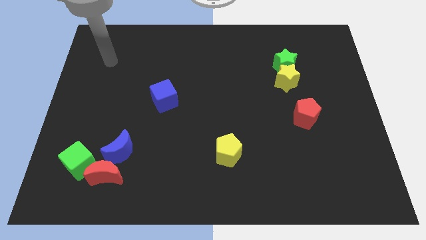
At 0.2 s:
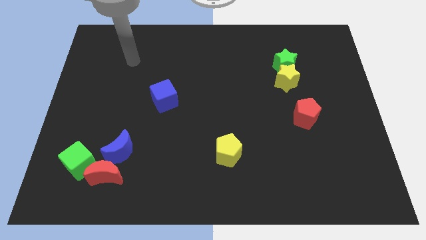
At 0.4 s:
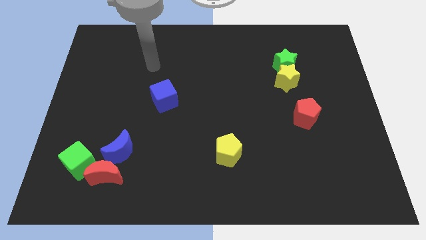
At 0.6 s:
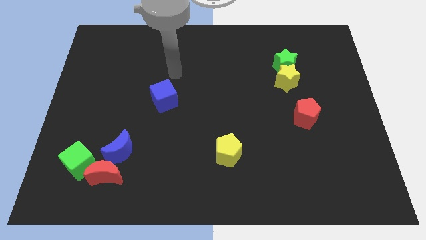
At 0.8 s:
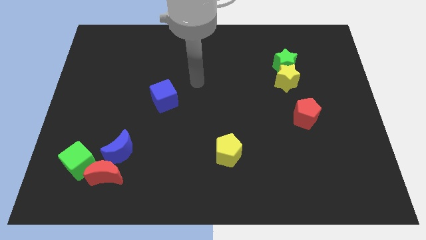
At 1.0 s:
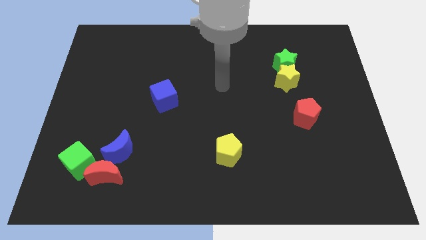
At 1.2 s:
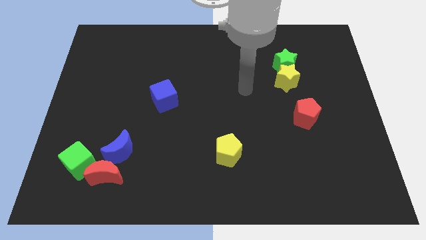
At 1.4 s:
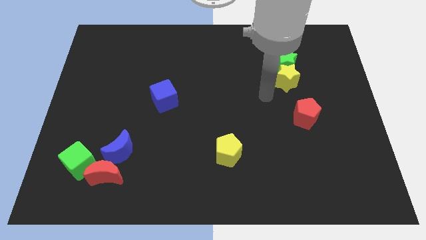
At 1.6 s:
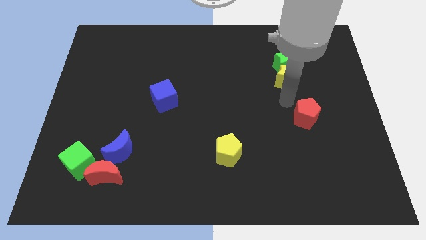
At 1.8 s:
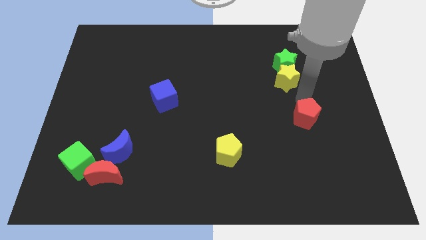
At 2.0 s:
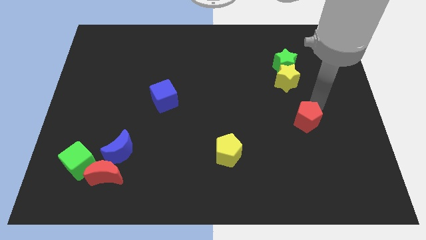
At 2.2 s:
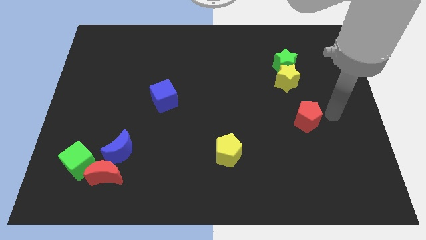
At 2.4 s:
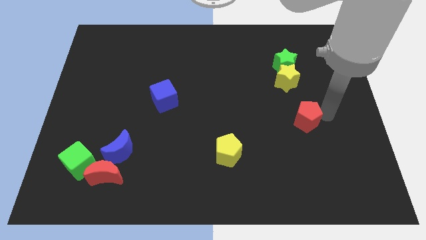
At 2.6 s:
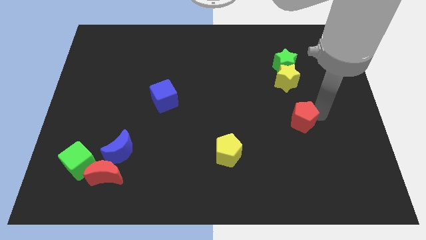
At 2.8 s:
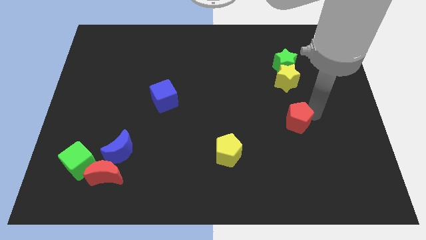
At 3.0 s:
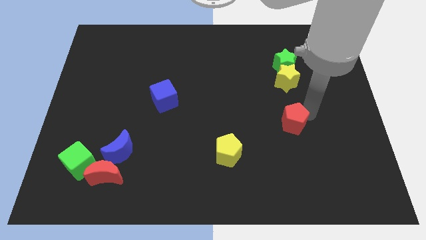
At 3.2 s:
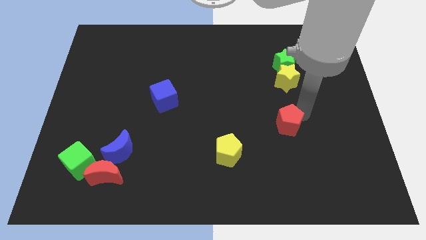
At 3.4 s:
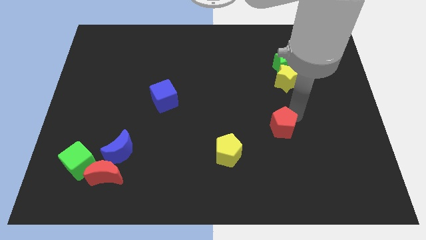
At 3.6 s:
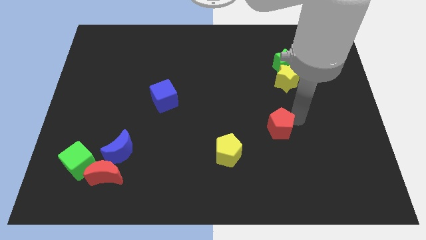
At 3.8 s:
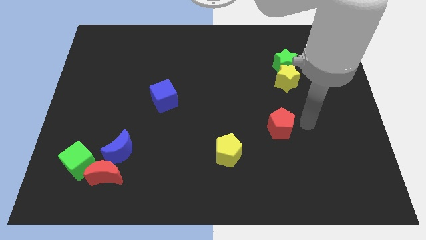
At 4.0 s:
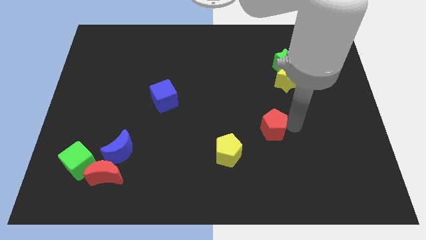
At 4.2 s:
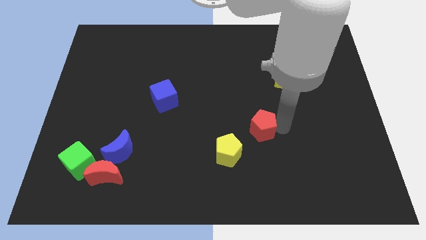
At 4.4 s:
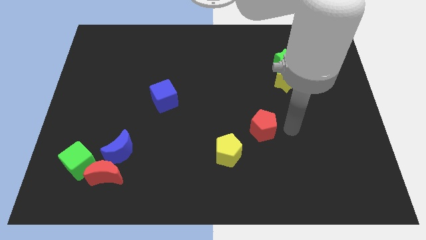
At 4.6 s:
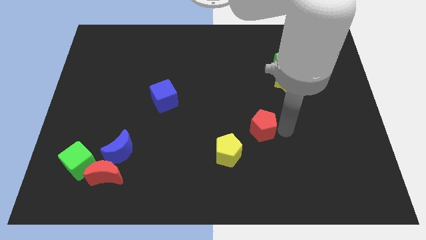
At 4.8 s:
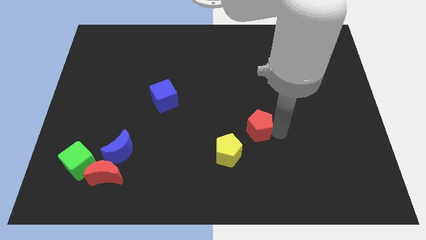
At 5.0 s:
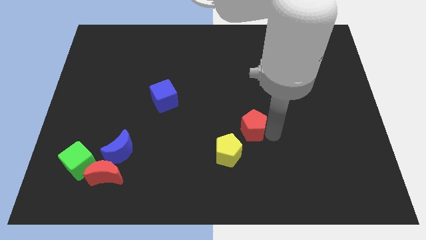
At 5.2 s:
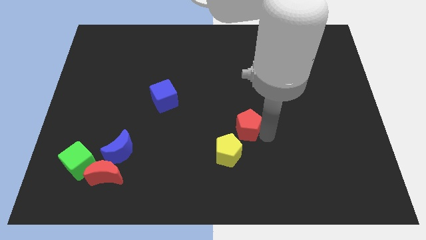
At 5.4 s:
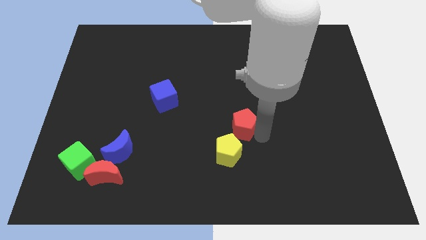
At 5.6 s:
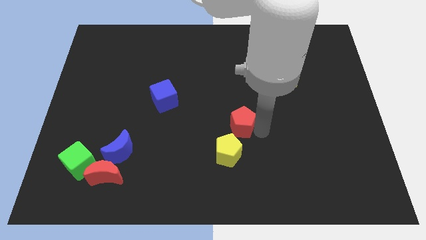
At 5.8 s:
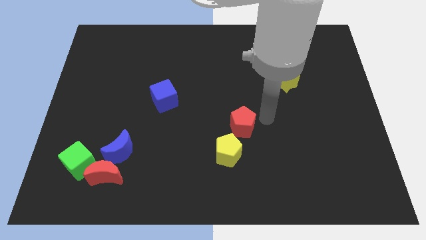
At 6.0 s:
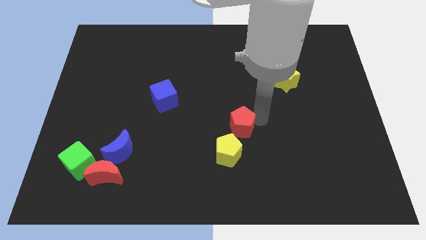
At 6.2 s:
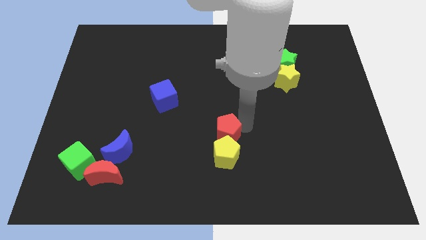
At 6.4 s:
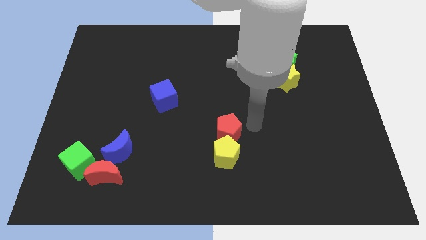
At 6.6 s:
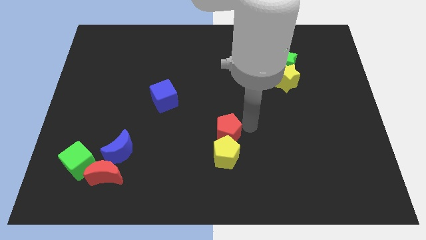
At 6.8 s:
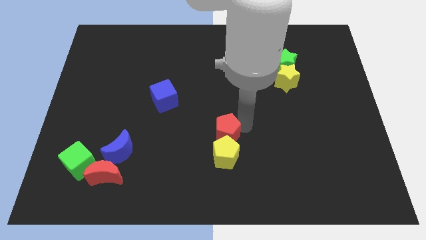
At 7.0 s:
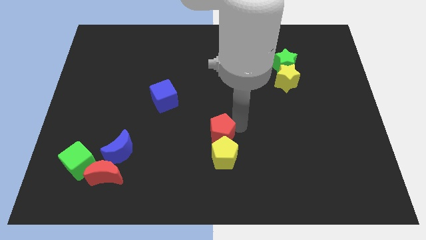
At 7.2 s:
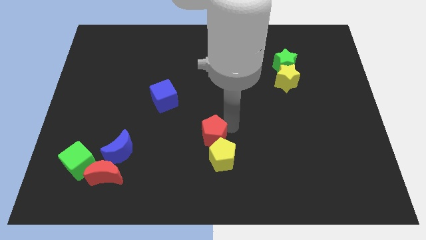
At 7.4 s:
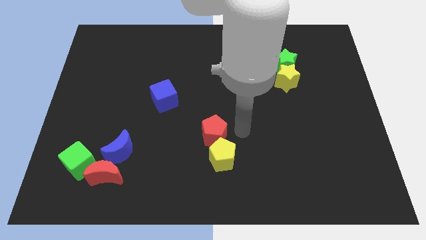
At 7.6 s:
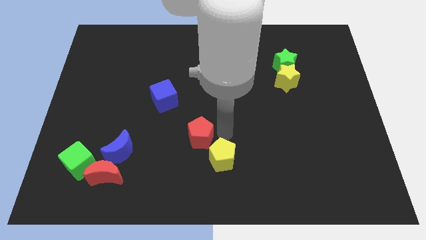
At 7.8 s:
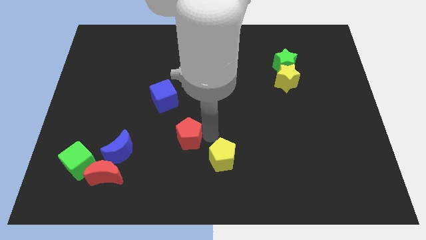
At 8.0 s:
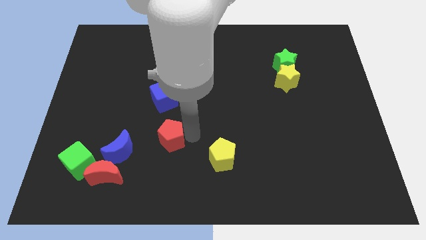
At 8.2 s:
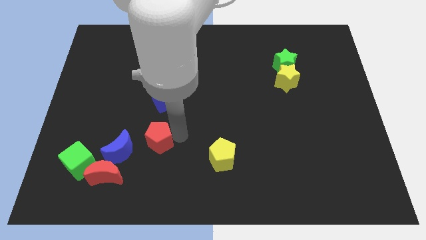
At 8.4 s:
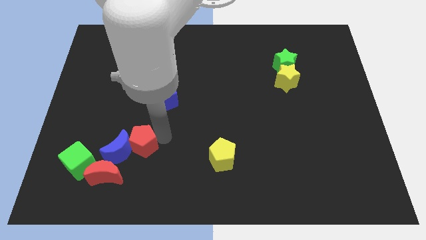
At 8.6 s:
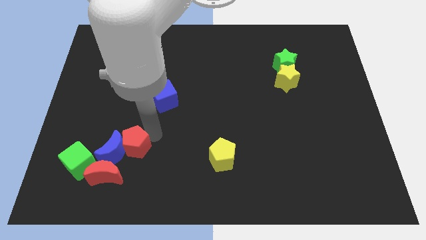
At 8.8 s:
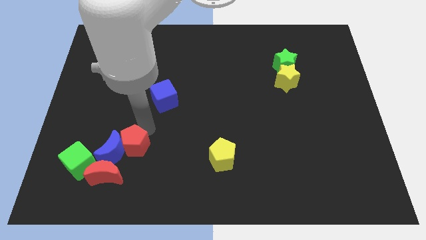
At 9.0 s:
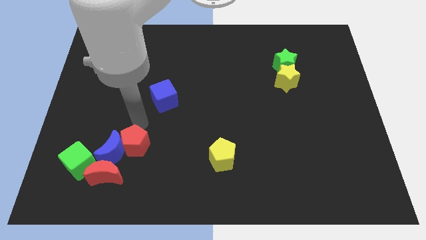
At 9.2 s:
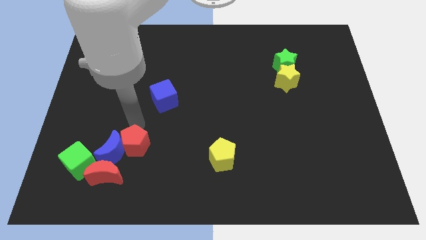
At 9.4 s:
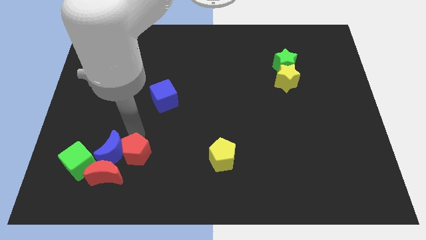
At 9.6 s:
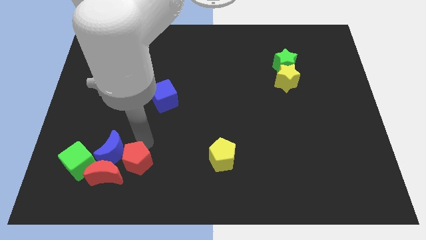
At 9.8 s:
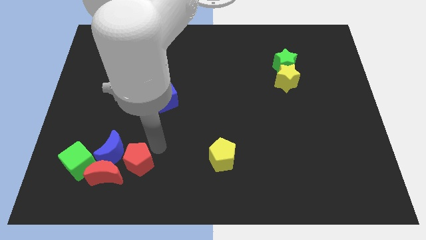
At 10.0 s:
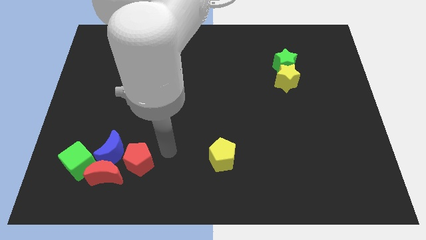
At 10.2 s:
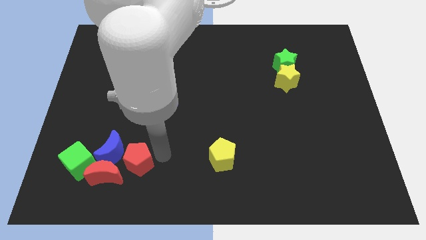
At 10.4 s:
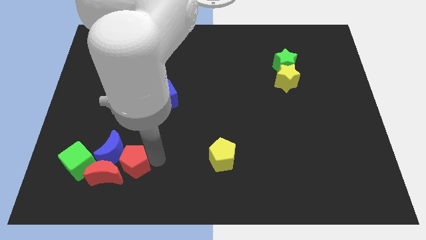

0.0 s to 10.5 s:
move the red pentagon next to the red moon

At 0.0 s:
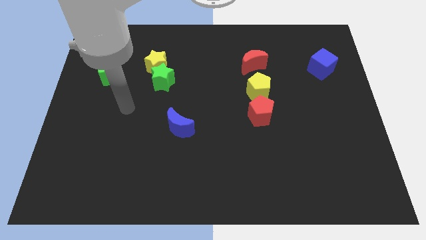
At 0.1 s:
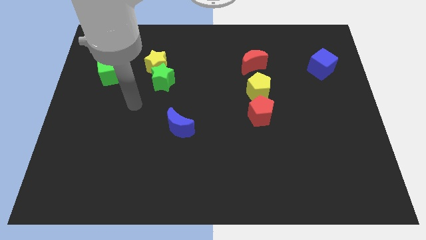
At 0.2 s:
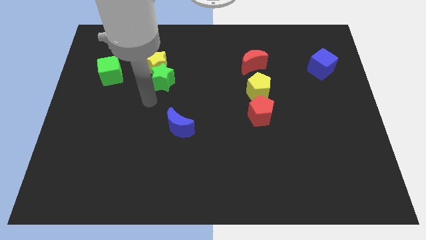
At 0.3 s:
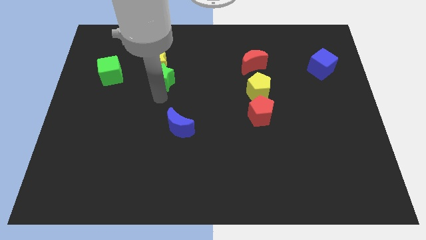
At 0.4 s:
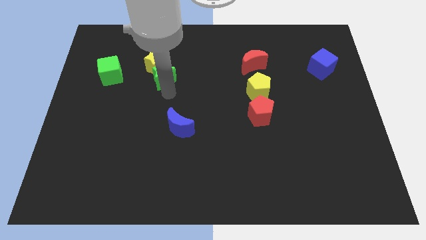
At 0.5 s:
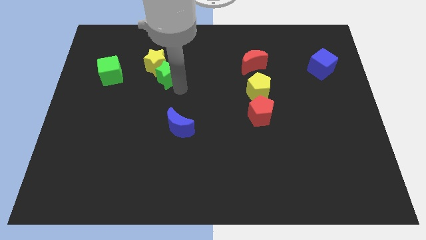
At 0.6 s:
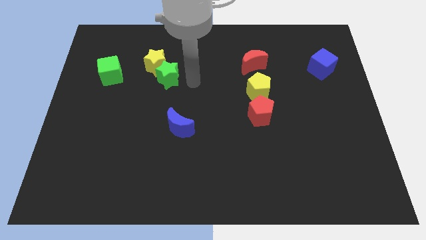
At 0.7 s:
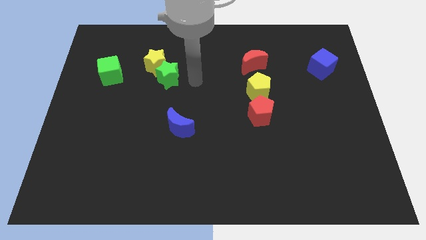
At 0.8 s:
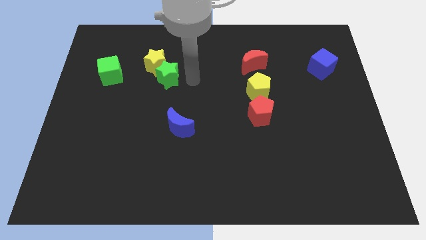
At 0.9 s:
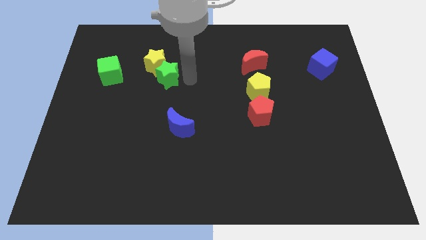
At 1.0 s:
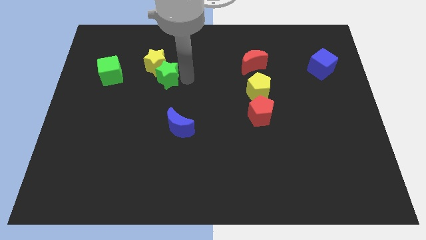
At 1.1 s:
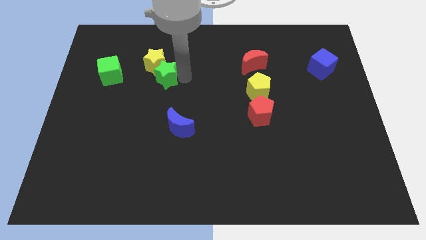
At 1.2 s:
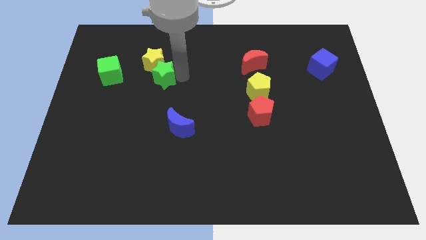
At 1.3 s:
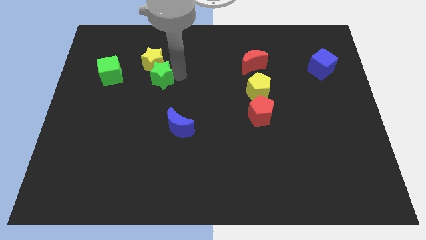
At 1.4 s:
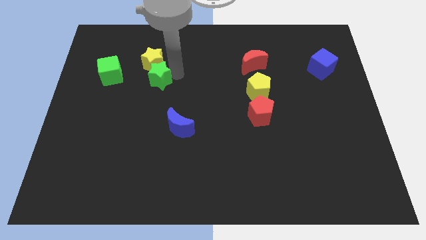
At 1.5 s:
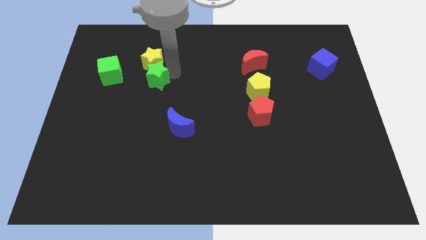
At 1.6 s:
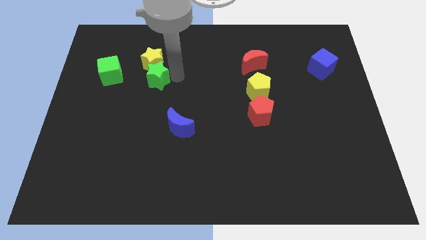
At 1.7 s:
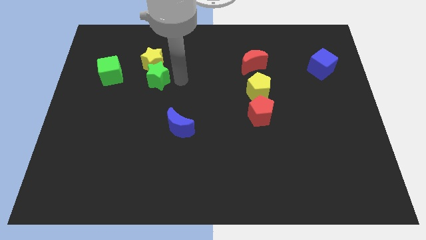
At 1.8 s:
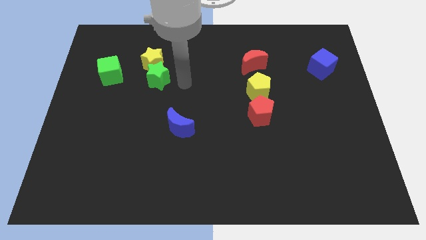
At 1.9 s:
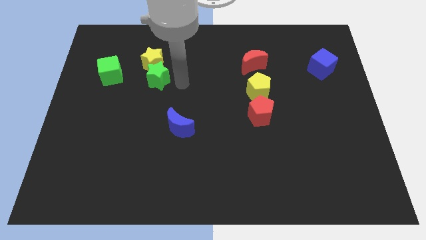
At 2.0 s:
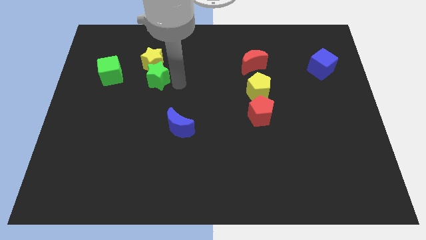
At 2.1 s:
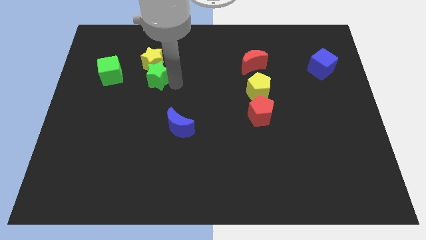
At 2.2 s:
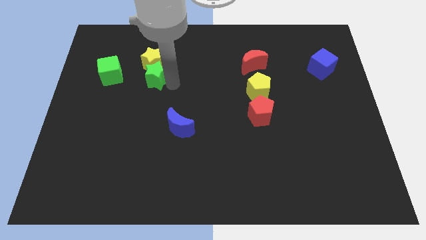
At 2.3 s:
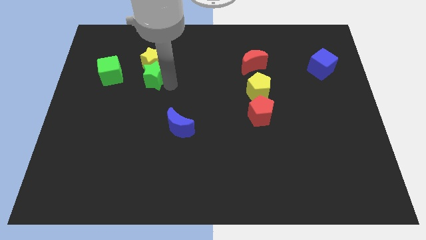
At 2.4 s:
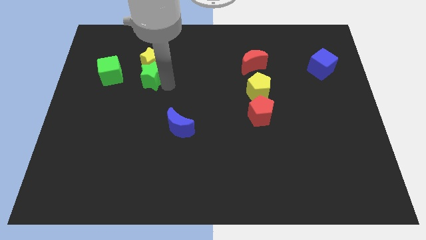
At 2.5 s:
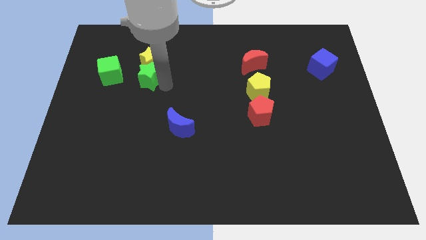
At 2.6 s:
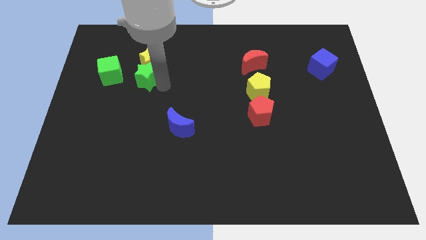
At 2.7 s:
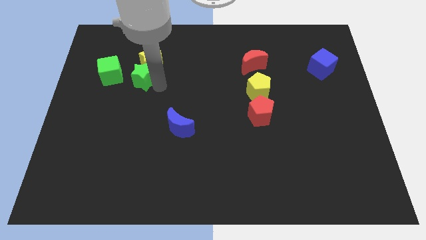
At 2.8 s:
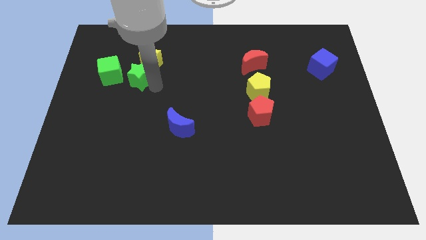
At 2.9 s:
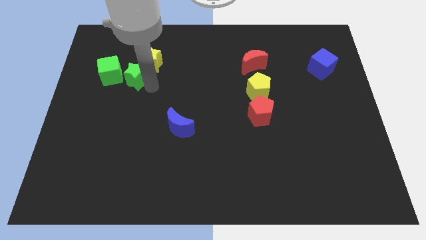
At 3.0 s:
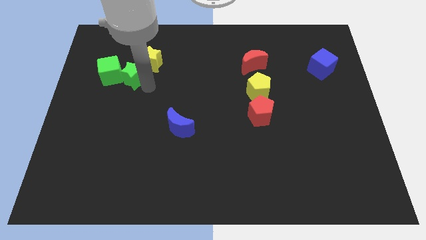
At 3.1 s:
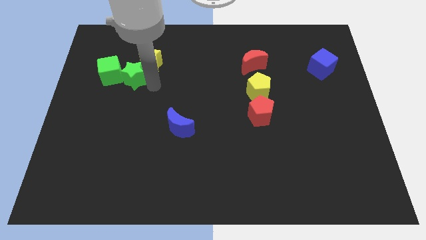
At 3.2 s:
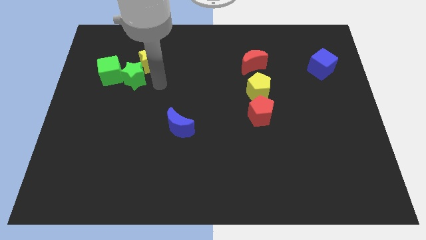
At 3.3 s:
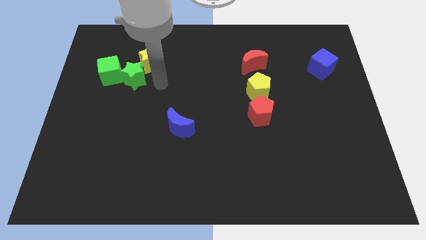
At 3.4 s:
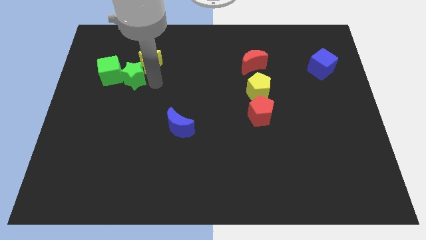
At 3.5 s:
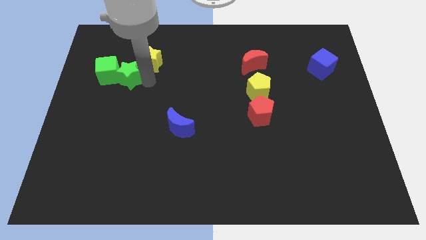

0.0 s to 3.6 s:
move the green star next to the green cube
